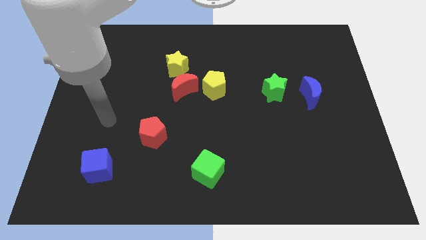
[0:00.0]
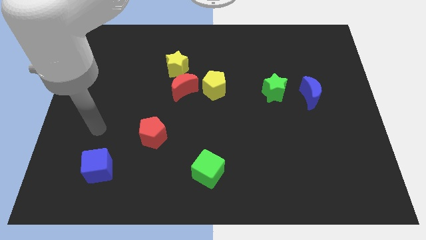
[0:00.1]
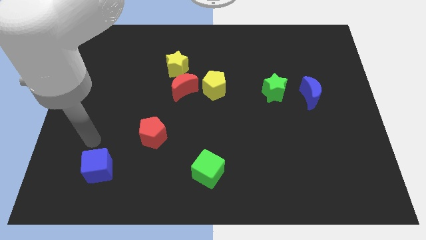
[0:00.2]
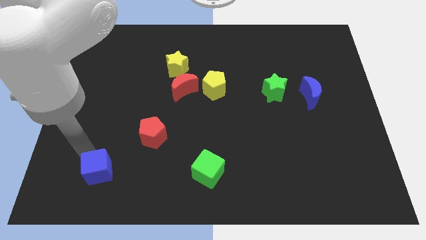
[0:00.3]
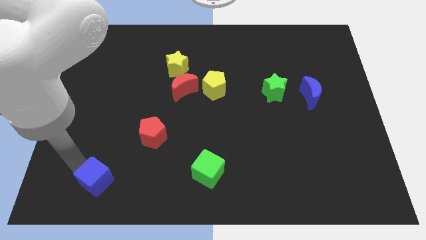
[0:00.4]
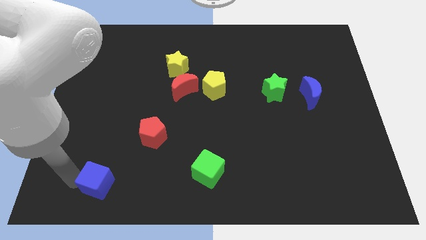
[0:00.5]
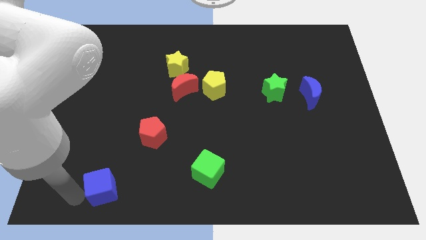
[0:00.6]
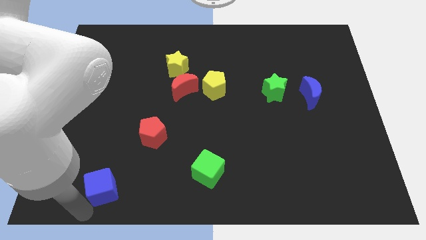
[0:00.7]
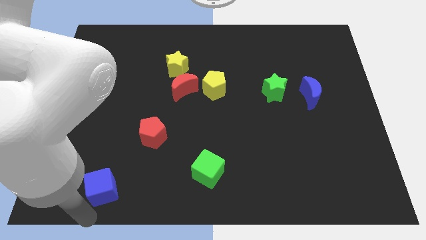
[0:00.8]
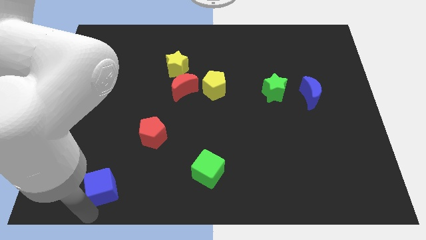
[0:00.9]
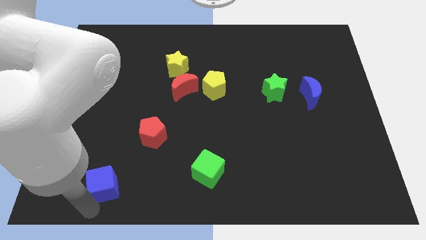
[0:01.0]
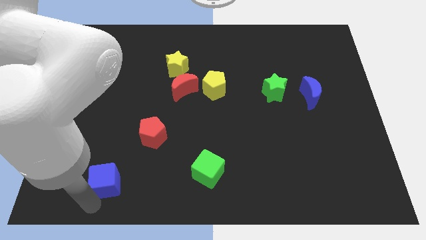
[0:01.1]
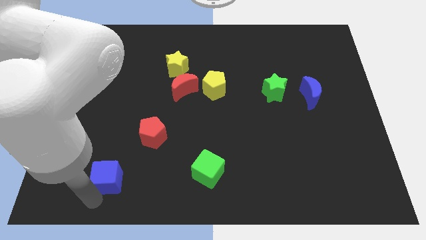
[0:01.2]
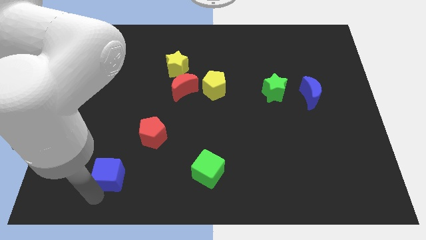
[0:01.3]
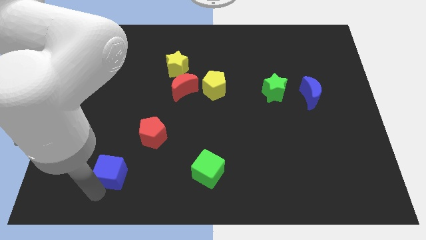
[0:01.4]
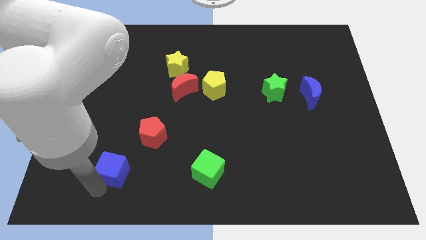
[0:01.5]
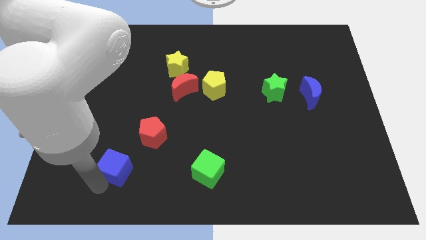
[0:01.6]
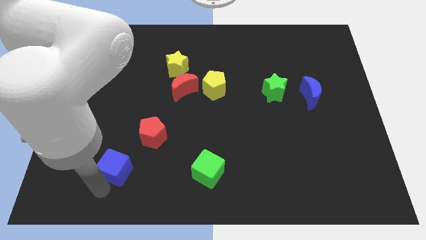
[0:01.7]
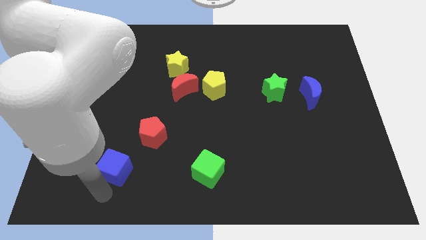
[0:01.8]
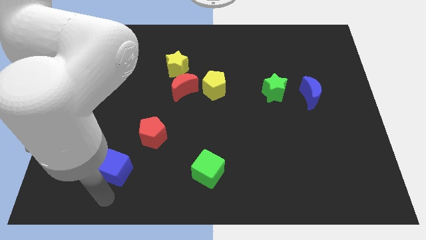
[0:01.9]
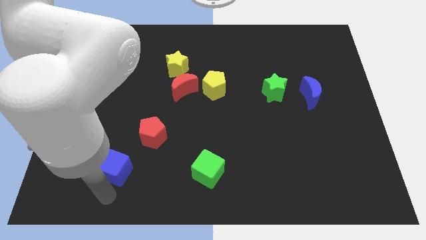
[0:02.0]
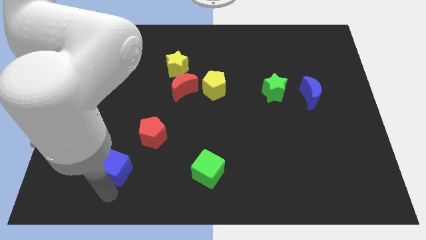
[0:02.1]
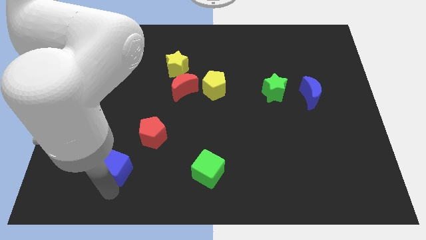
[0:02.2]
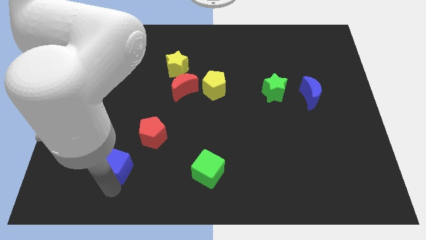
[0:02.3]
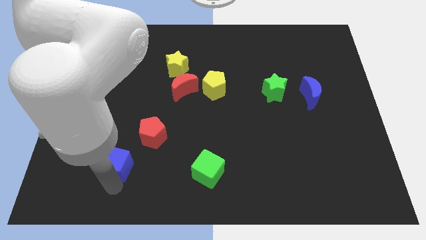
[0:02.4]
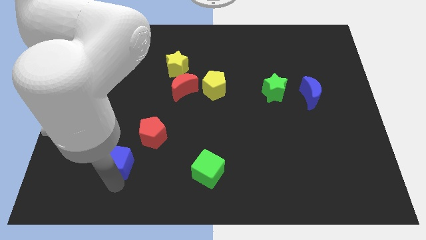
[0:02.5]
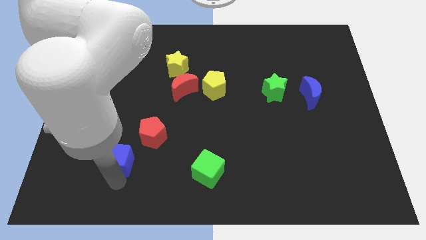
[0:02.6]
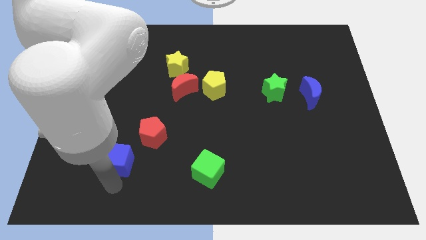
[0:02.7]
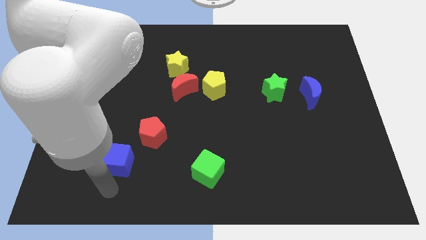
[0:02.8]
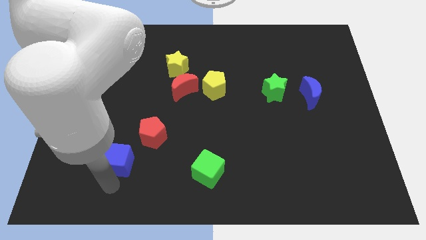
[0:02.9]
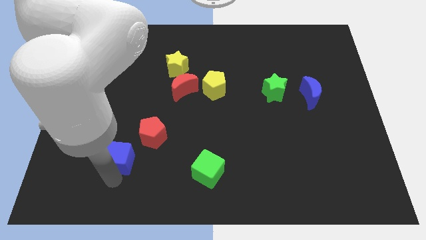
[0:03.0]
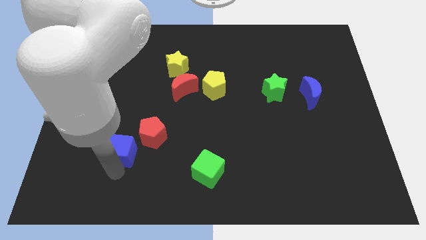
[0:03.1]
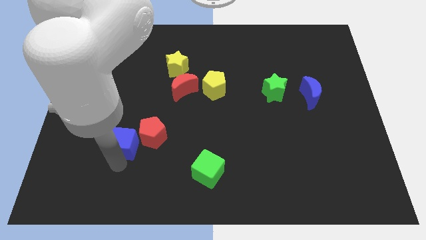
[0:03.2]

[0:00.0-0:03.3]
slide the blue cube diagonally upwards and right a bit

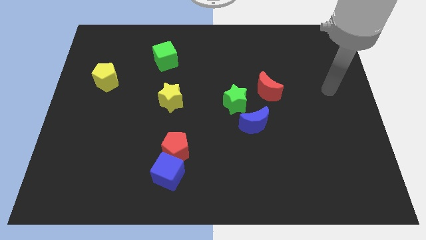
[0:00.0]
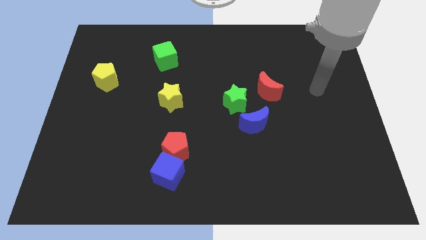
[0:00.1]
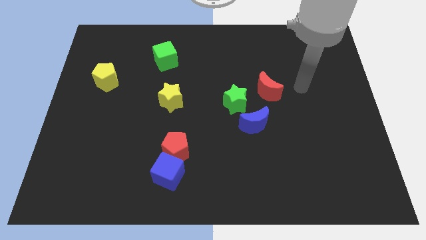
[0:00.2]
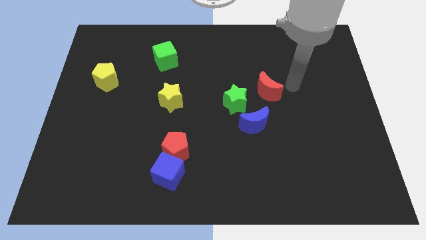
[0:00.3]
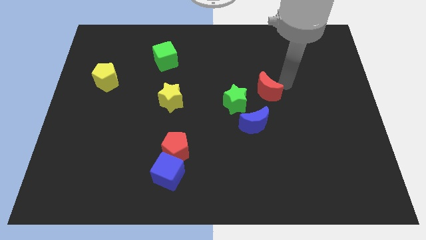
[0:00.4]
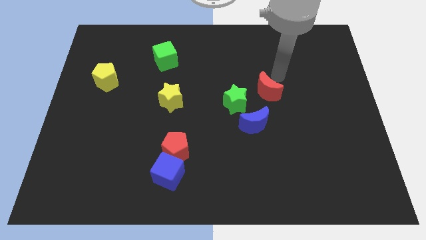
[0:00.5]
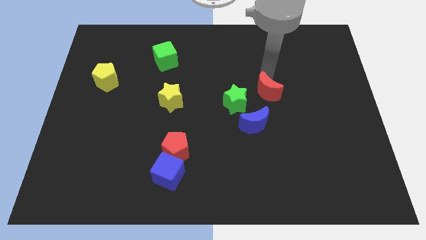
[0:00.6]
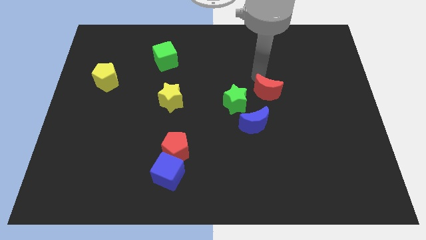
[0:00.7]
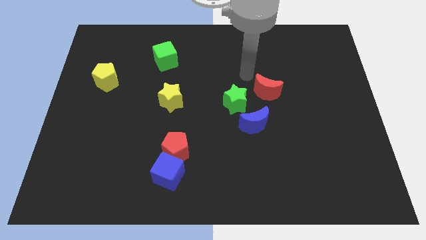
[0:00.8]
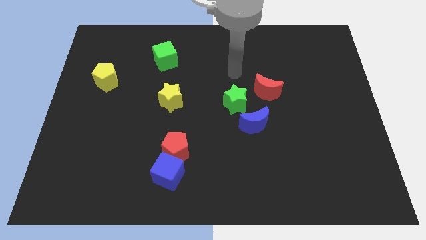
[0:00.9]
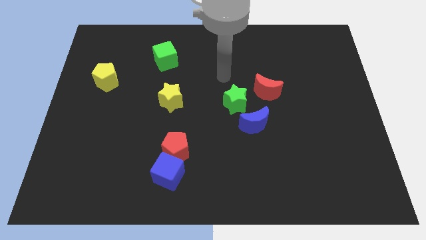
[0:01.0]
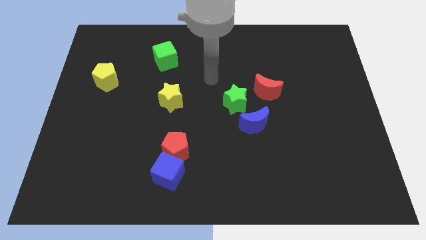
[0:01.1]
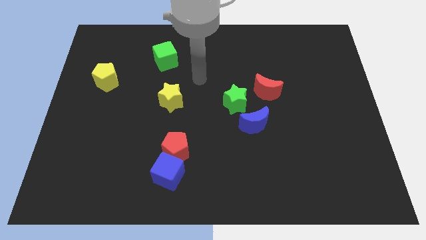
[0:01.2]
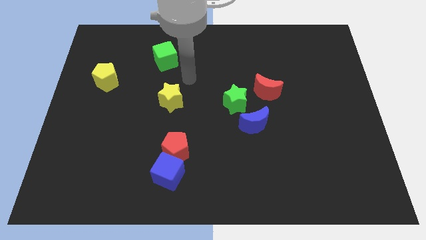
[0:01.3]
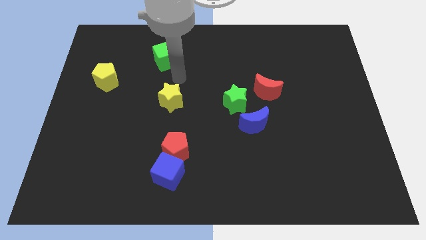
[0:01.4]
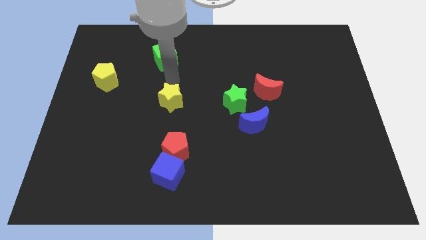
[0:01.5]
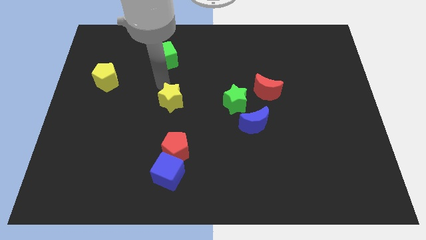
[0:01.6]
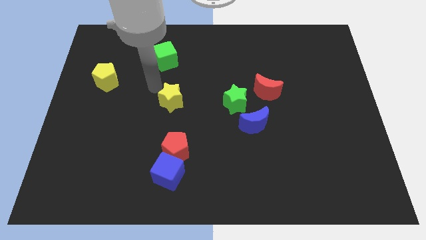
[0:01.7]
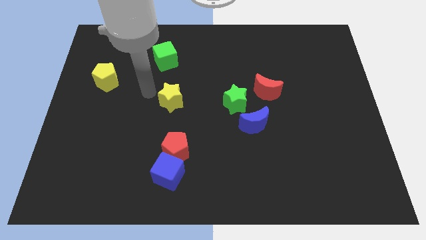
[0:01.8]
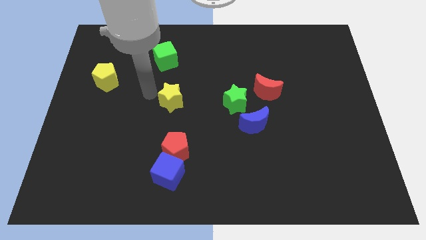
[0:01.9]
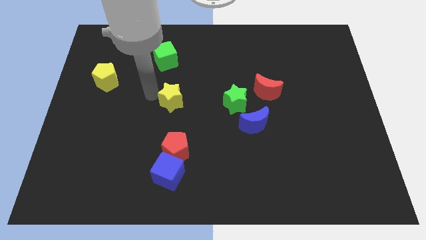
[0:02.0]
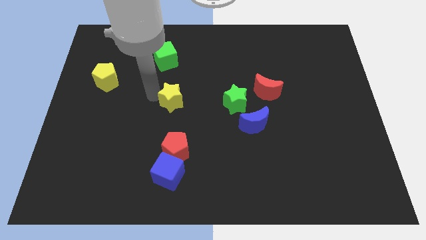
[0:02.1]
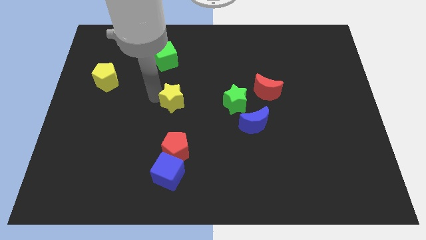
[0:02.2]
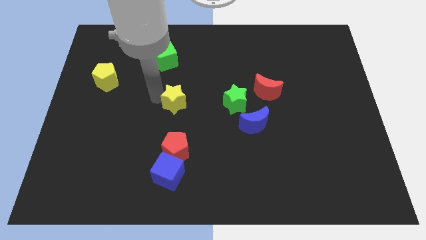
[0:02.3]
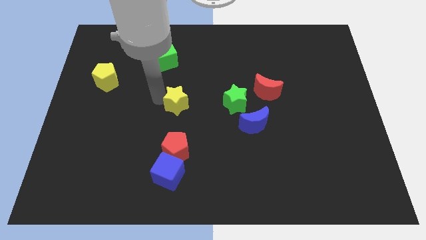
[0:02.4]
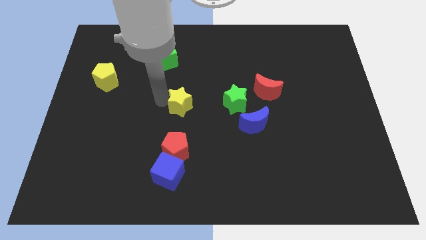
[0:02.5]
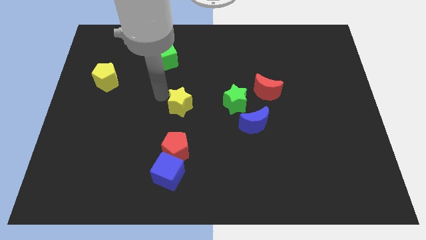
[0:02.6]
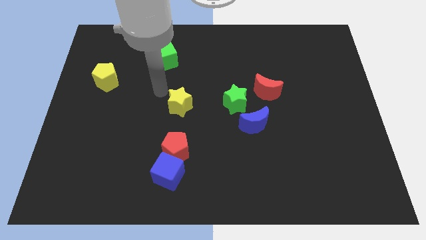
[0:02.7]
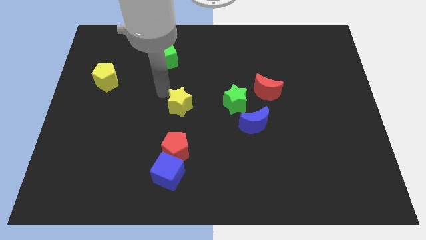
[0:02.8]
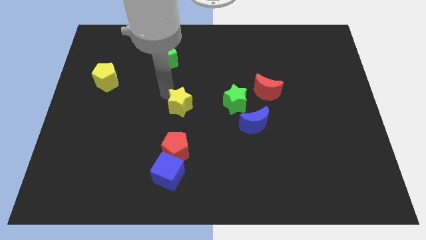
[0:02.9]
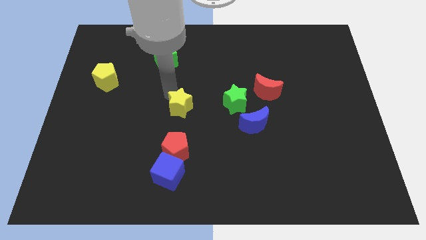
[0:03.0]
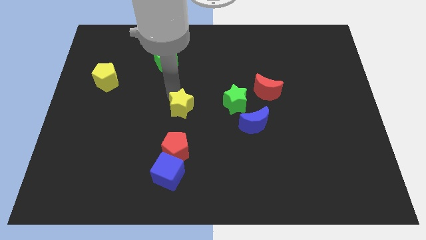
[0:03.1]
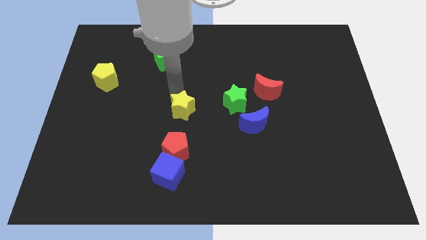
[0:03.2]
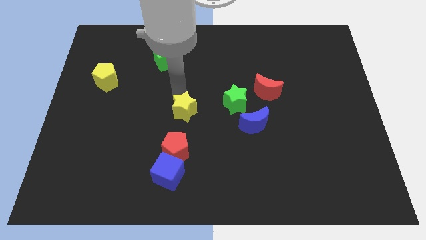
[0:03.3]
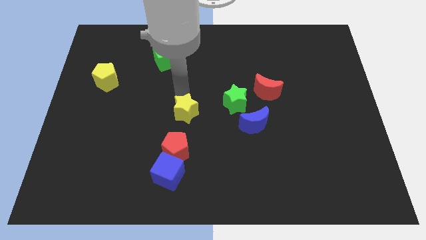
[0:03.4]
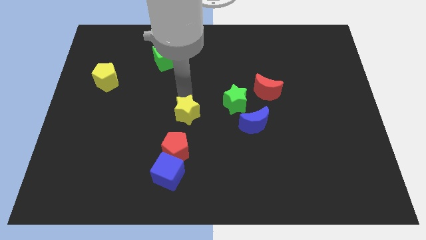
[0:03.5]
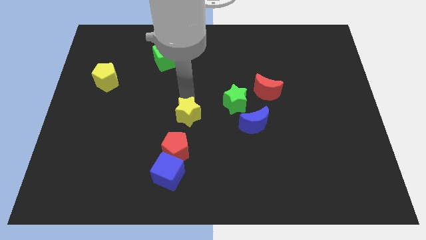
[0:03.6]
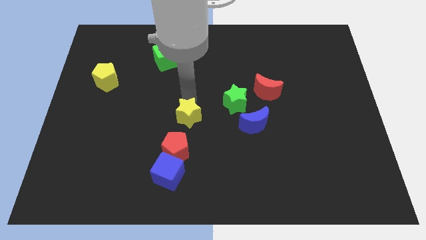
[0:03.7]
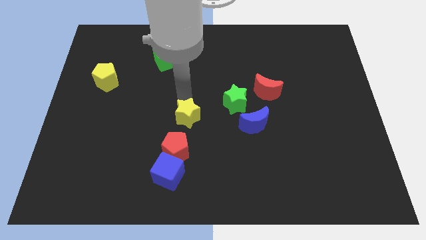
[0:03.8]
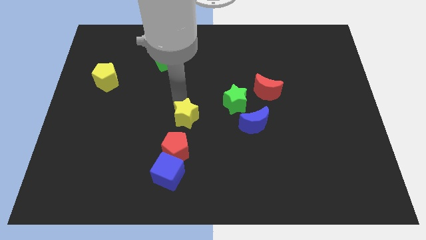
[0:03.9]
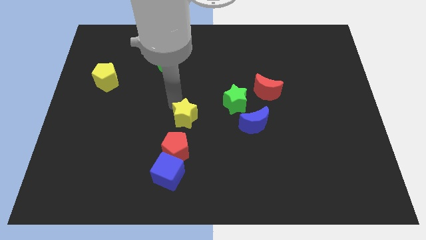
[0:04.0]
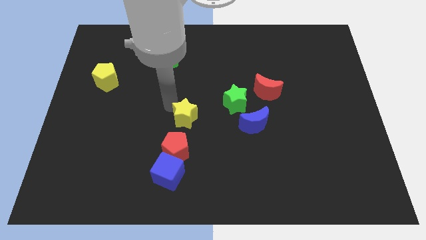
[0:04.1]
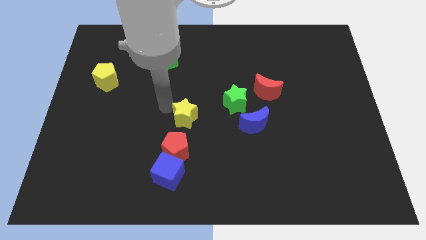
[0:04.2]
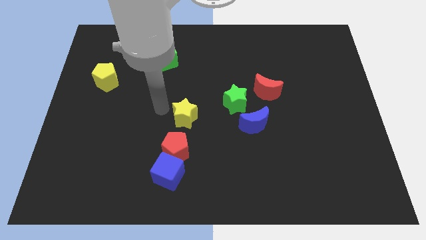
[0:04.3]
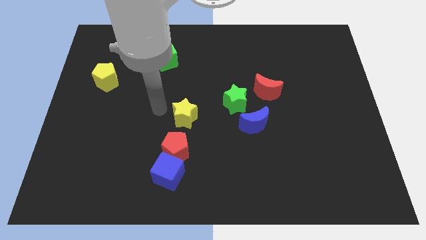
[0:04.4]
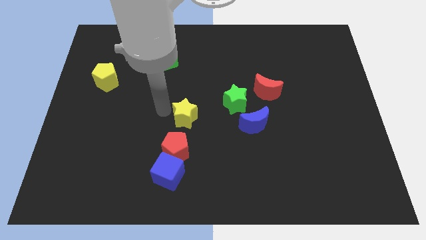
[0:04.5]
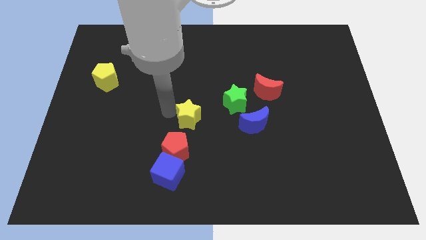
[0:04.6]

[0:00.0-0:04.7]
move the yellow star somewhat diagonally down and right
